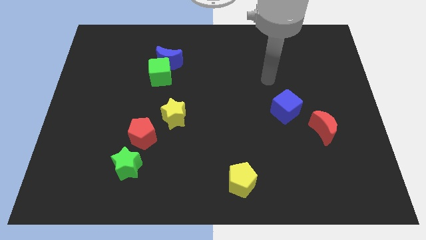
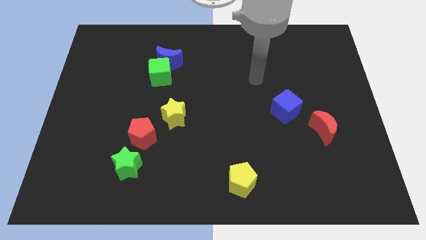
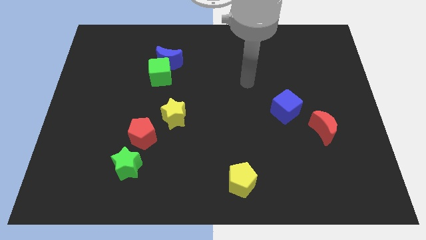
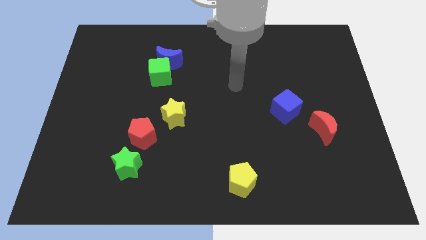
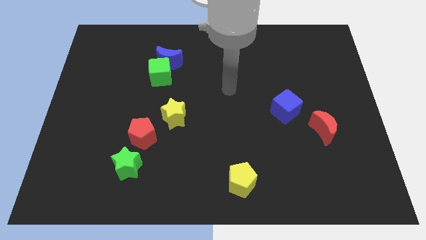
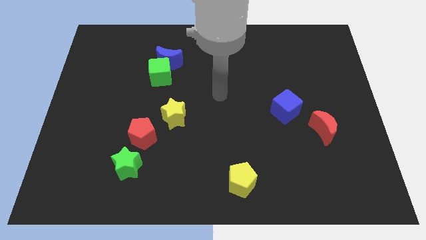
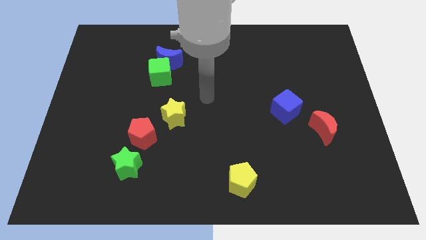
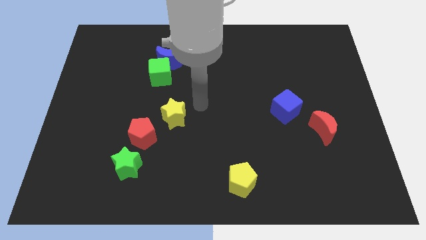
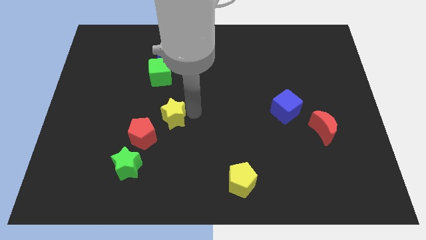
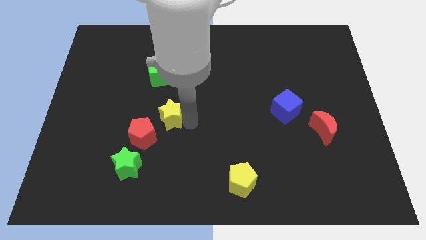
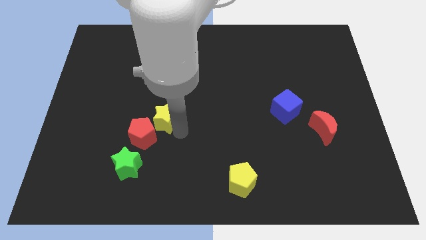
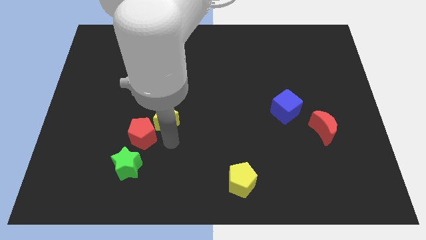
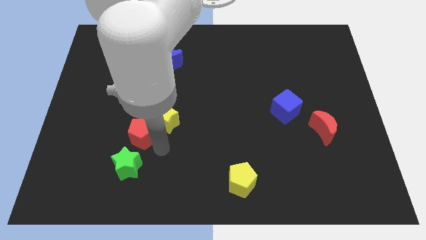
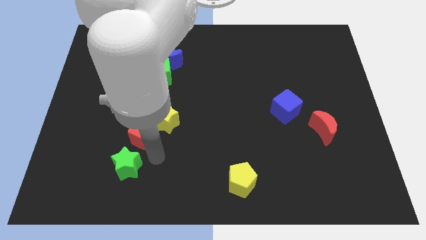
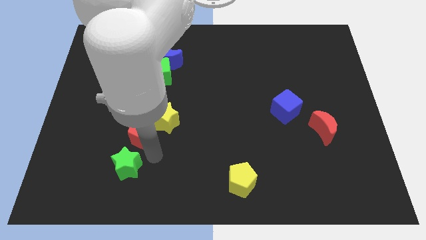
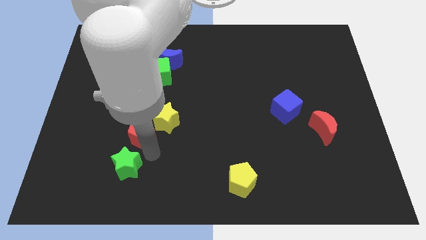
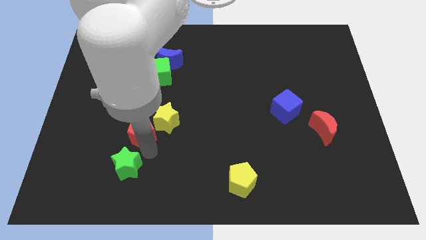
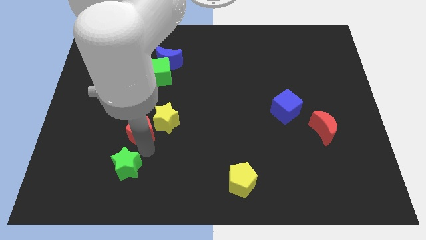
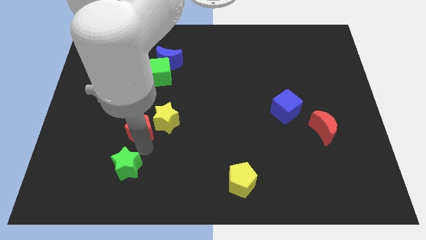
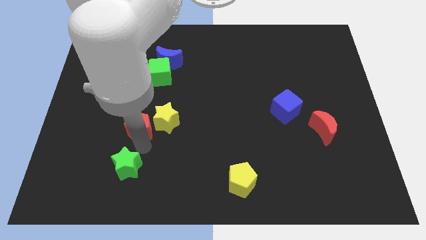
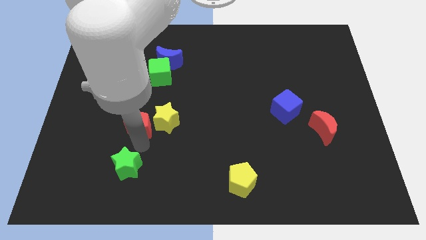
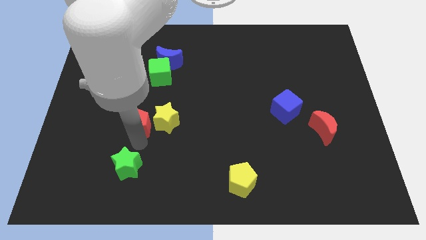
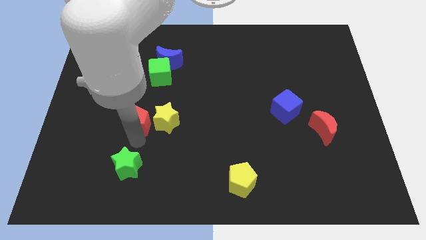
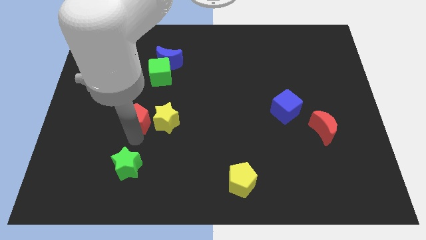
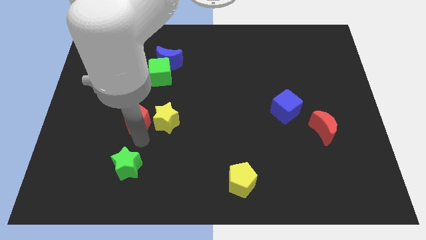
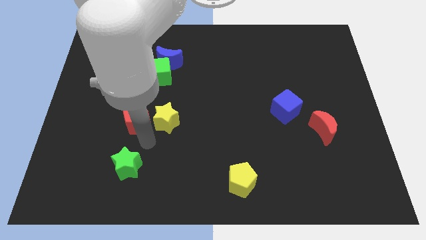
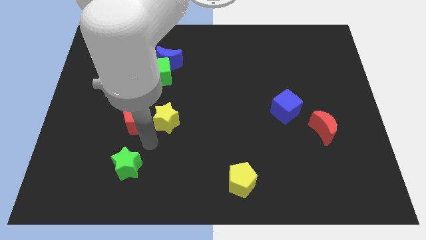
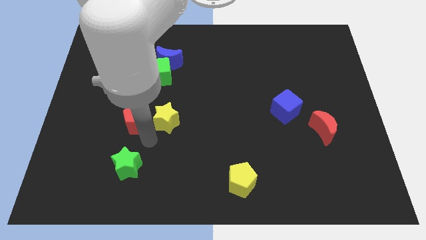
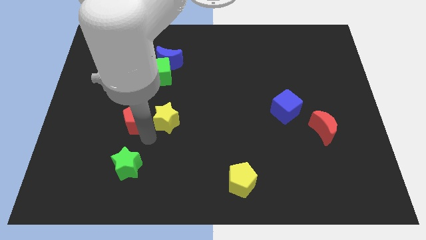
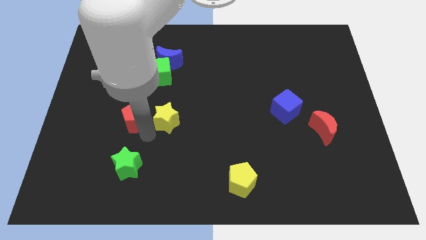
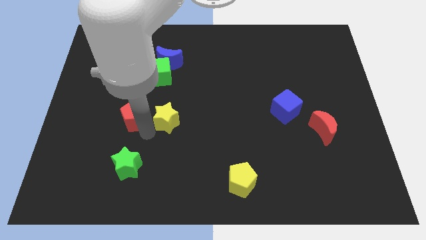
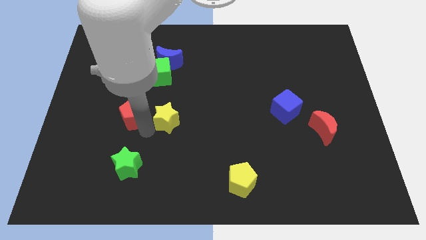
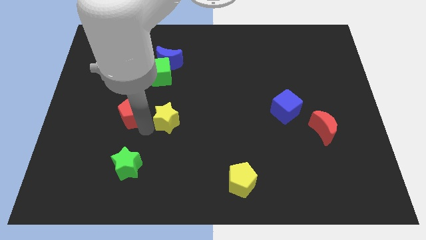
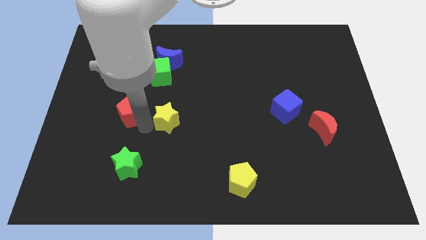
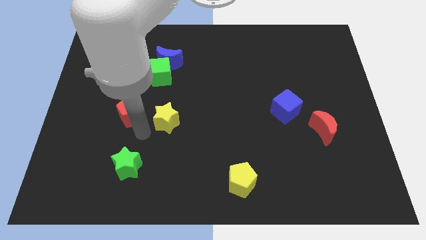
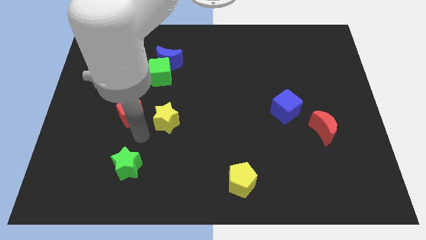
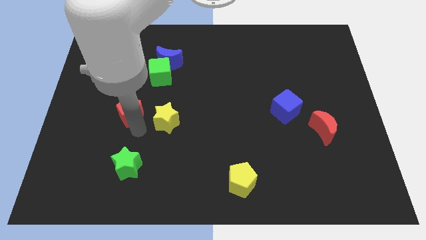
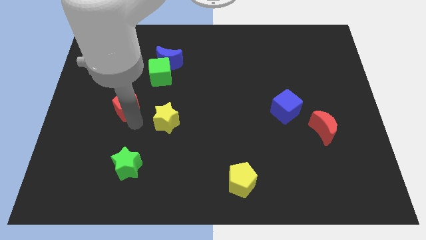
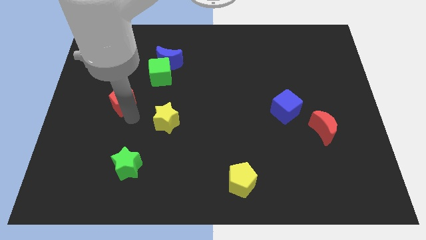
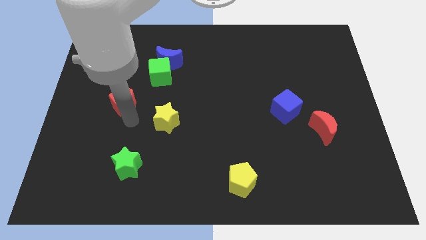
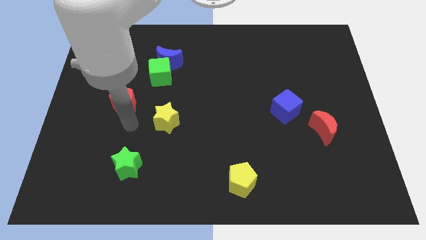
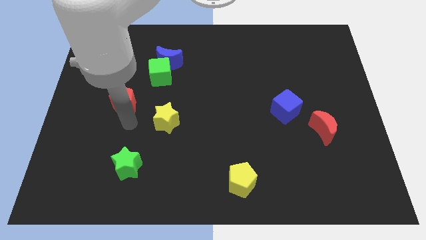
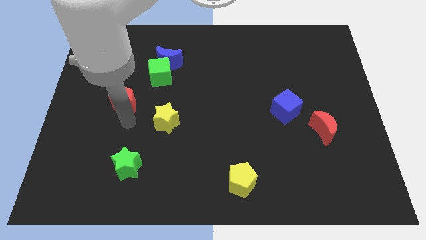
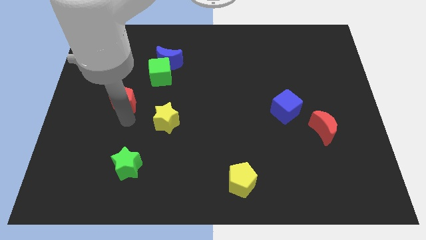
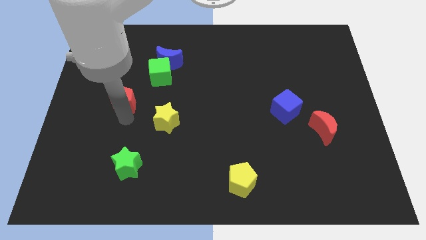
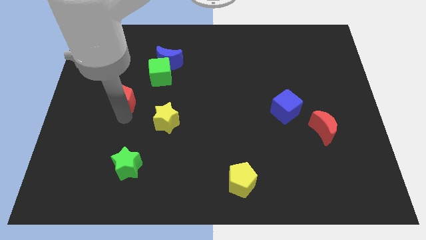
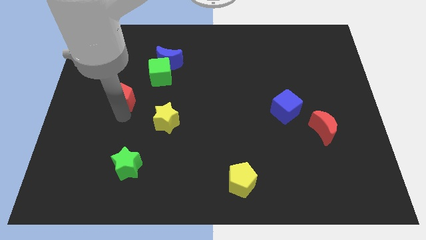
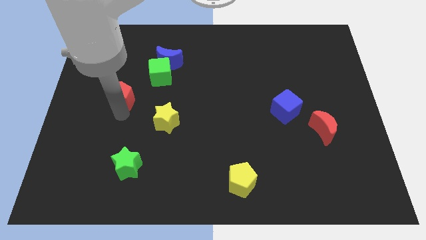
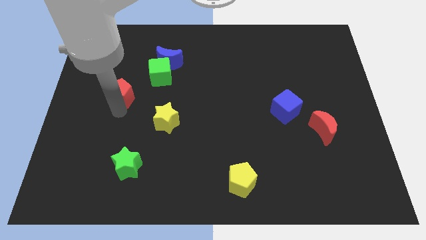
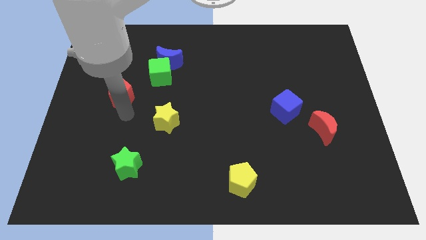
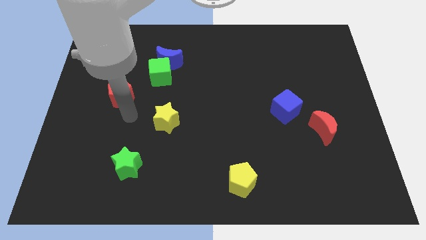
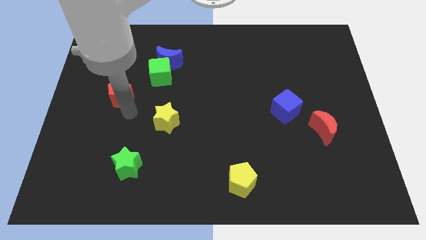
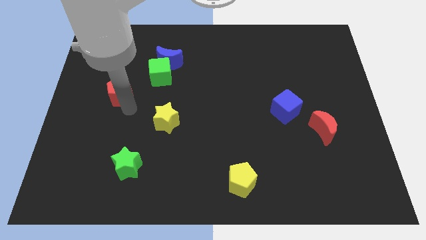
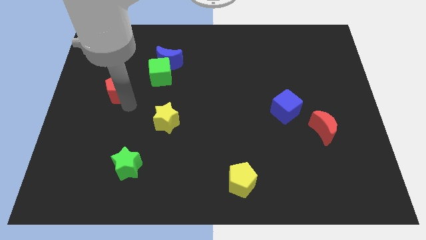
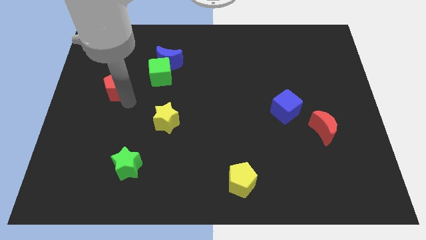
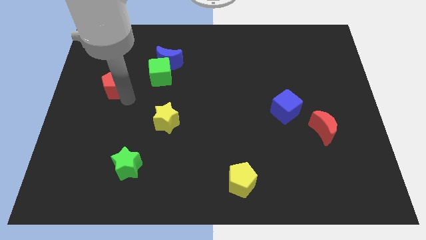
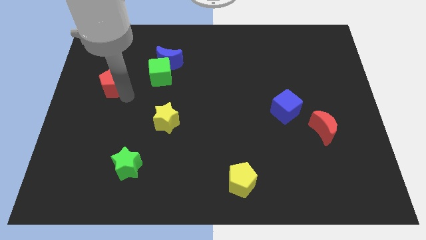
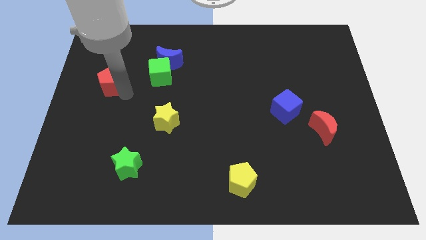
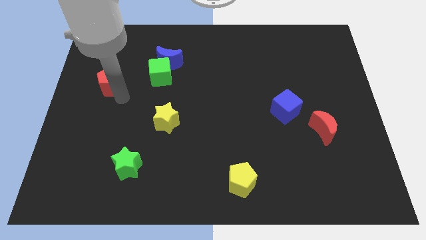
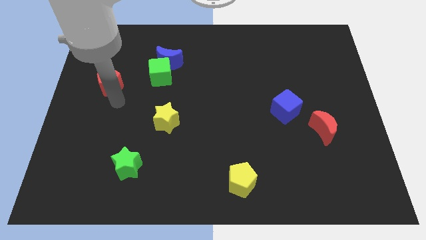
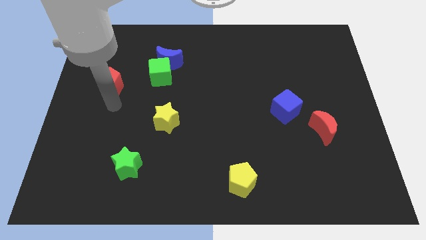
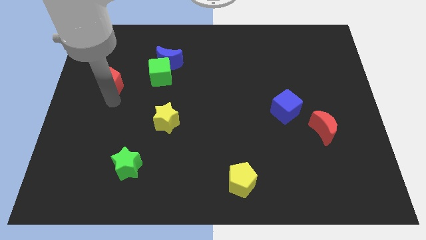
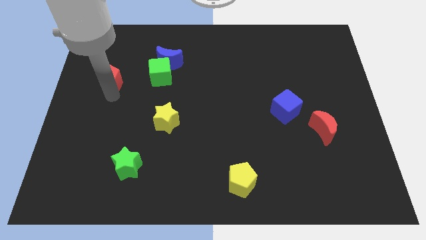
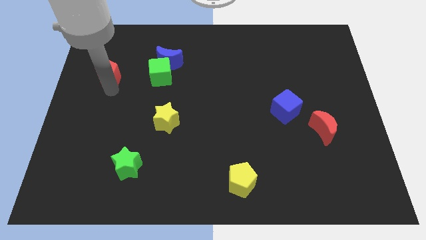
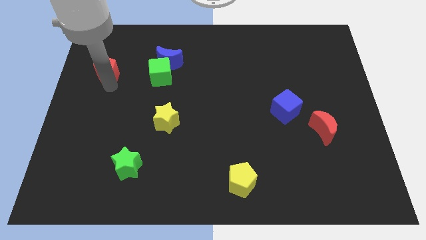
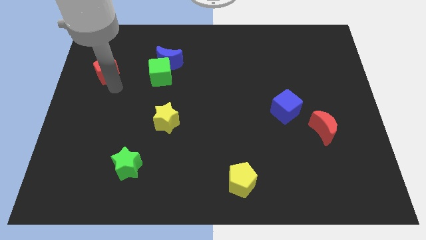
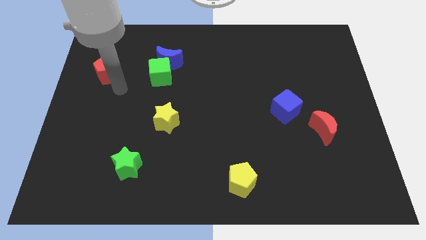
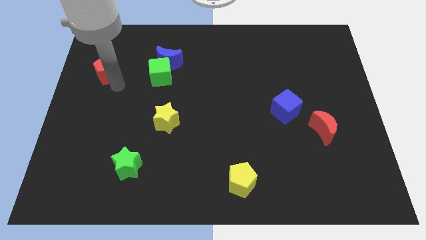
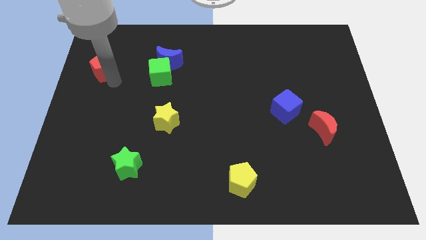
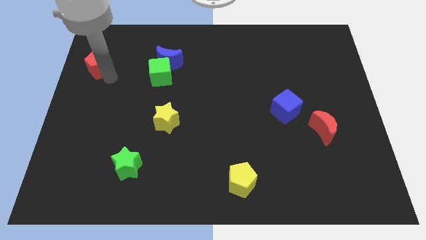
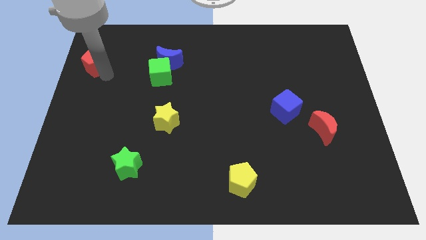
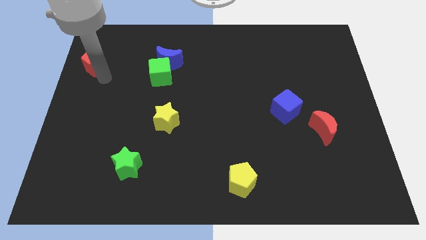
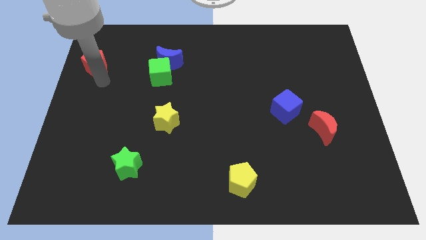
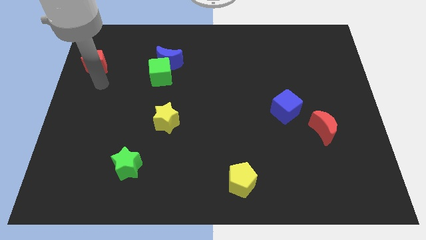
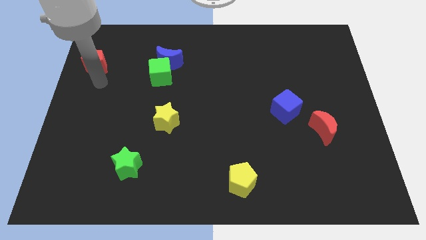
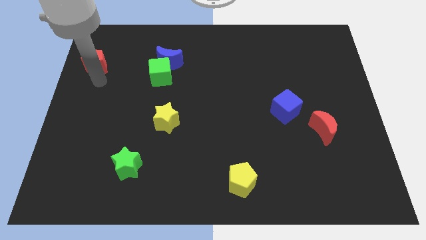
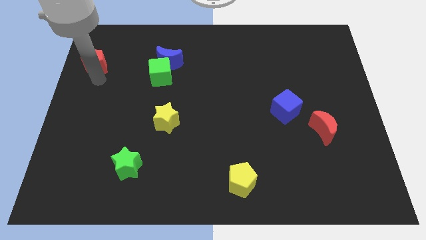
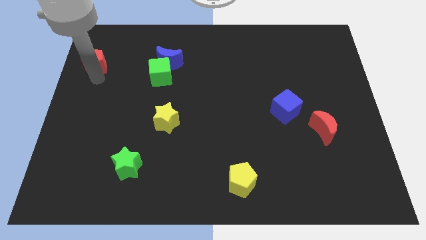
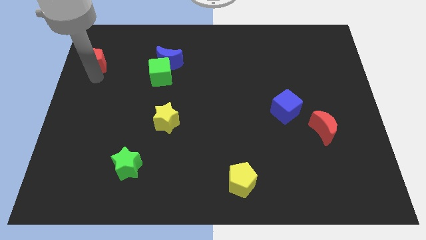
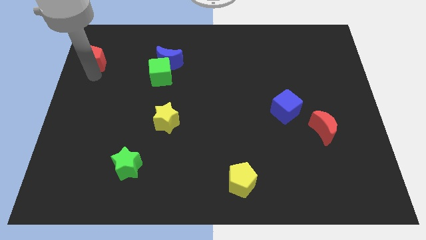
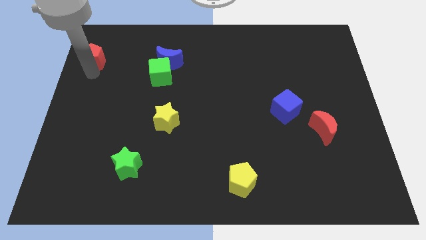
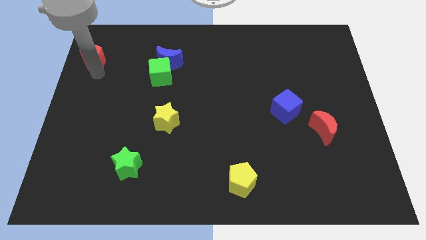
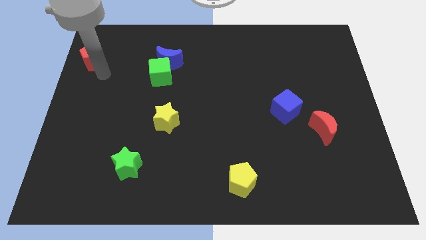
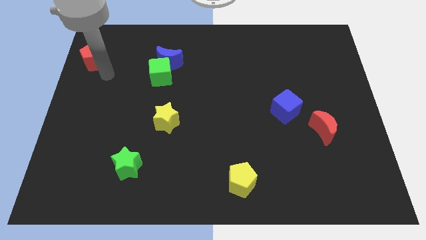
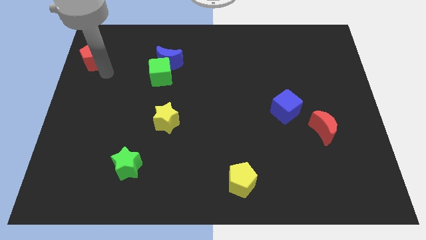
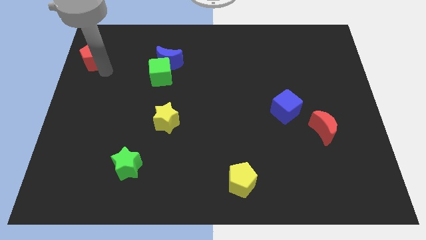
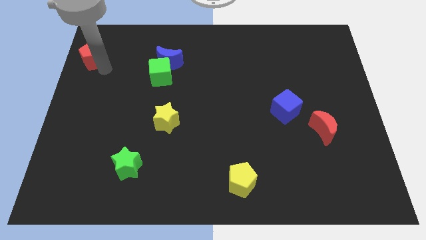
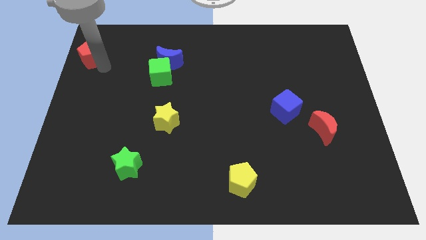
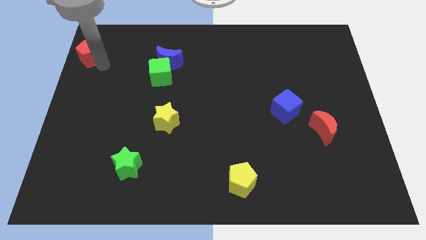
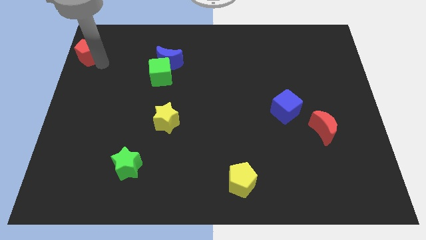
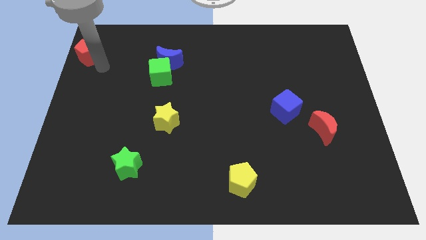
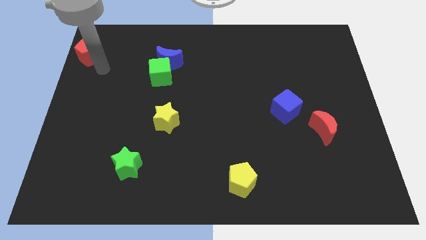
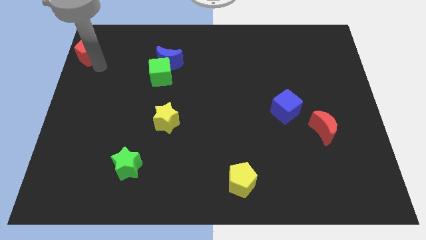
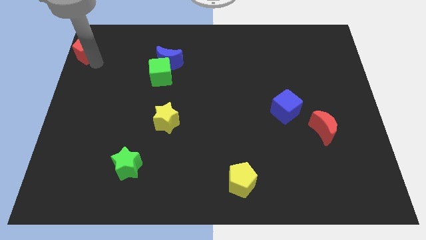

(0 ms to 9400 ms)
move the red pentagon to the top left of the board
